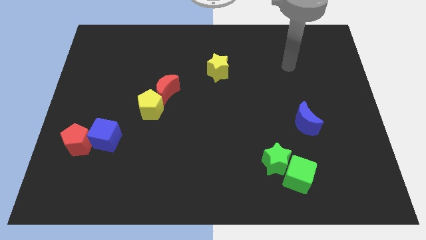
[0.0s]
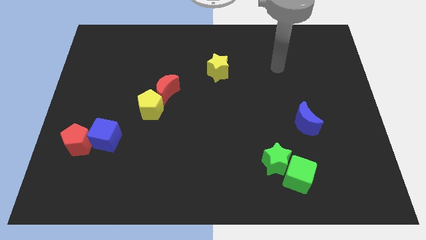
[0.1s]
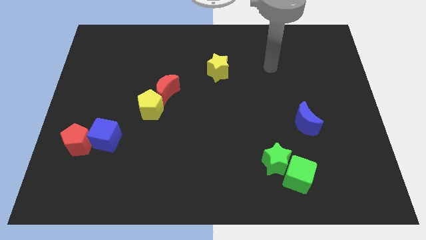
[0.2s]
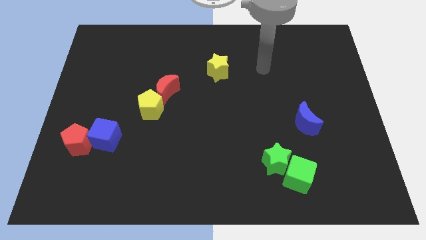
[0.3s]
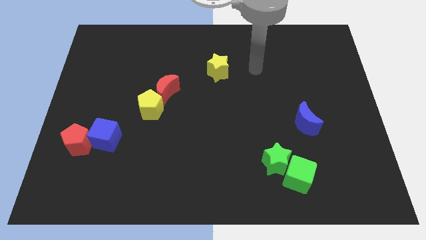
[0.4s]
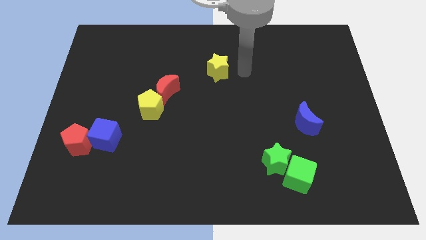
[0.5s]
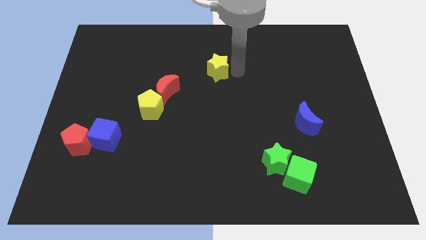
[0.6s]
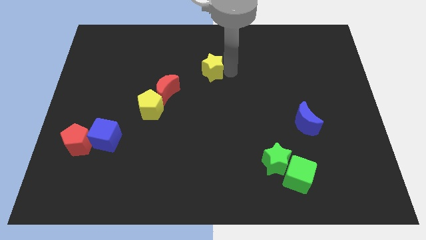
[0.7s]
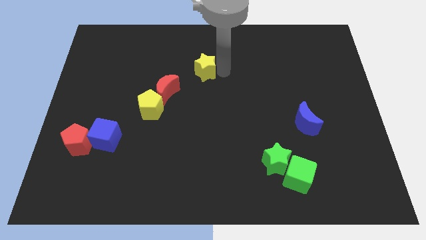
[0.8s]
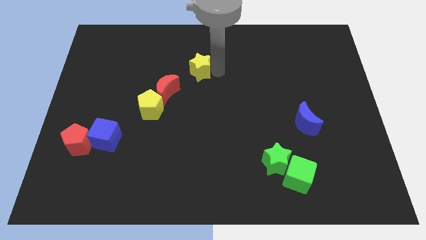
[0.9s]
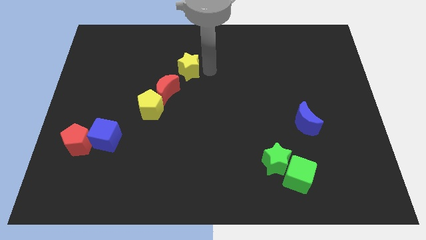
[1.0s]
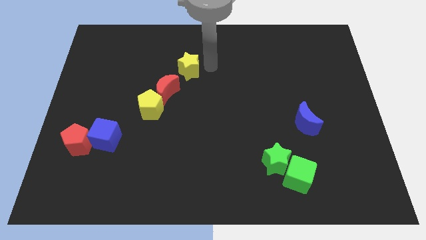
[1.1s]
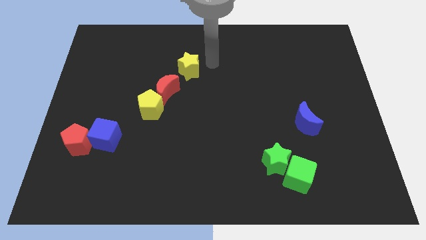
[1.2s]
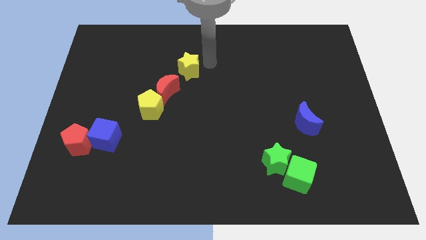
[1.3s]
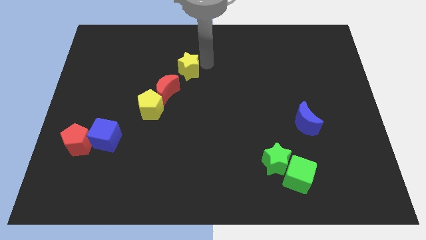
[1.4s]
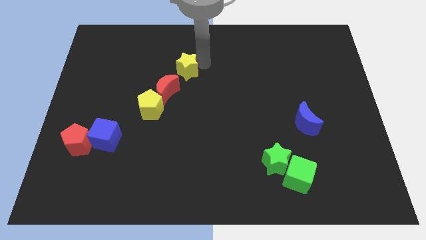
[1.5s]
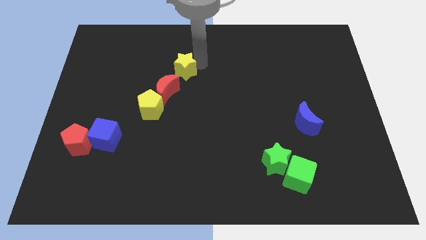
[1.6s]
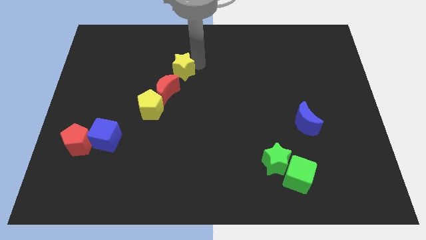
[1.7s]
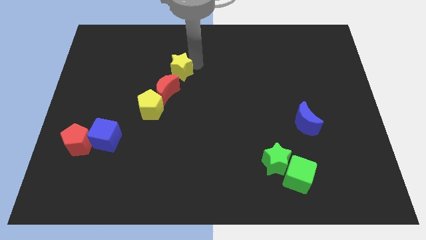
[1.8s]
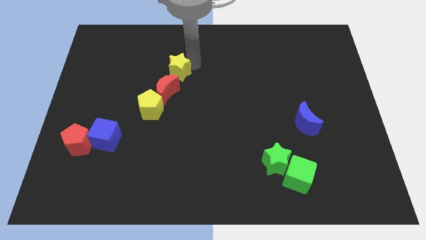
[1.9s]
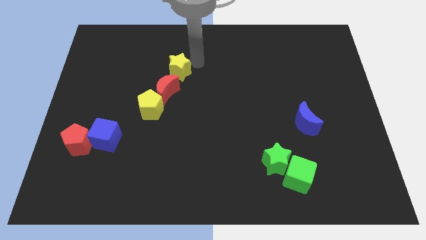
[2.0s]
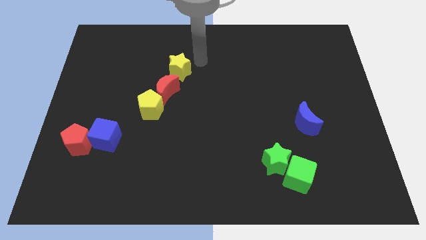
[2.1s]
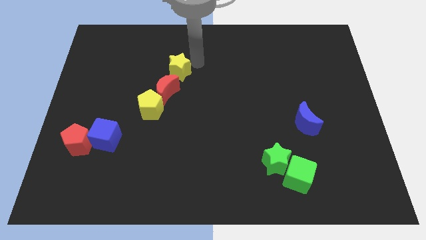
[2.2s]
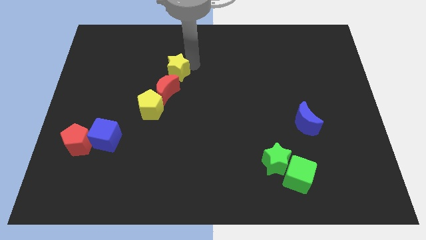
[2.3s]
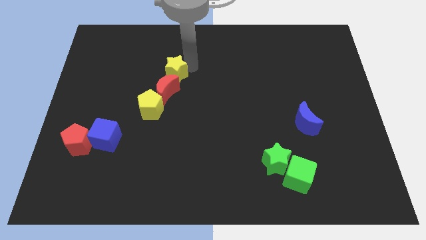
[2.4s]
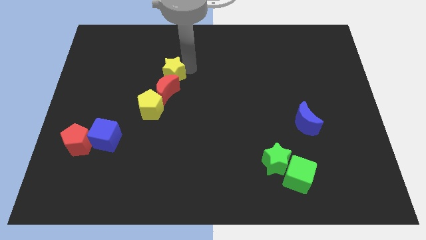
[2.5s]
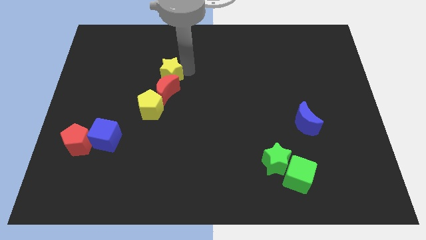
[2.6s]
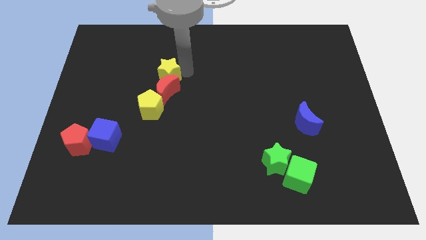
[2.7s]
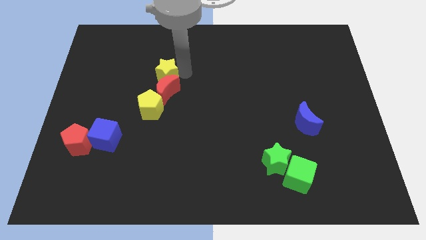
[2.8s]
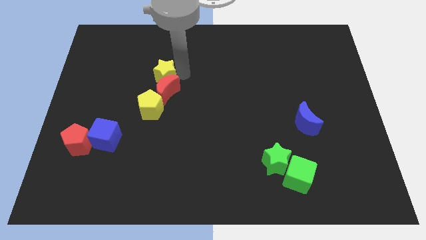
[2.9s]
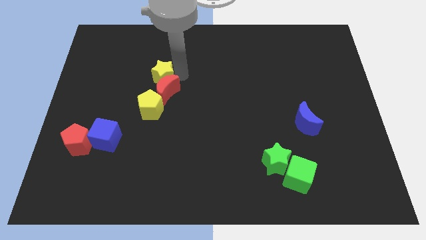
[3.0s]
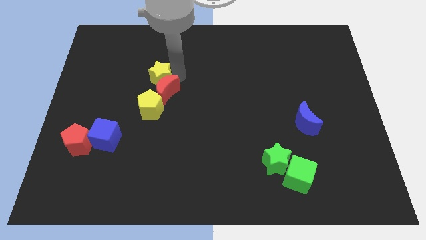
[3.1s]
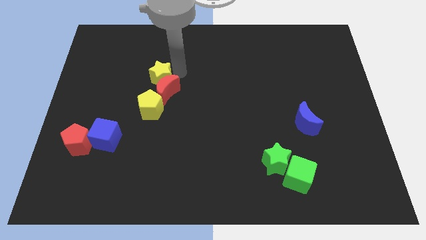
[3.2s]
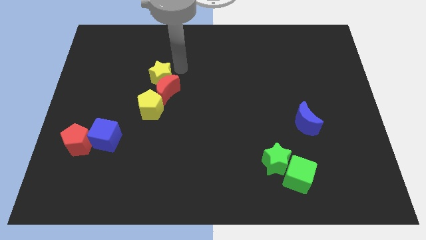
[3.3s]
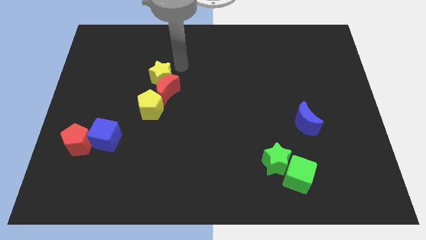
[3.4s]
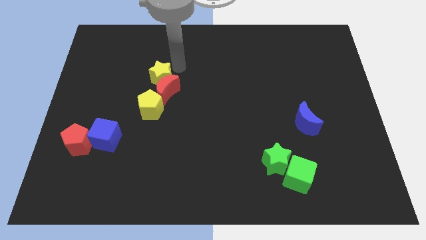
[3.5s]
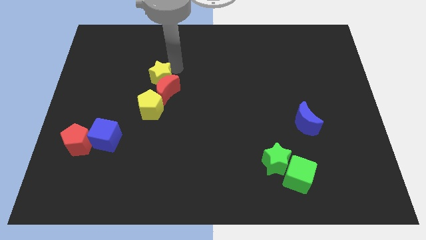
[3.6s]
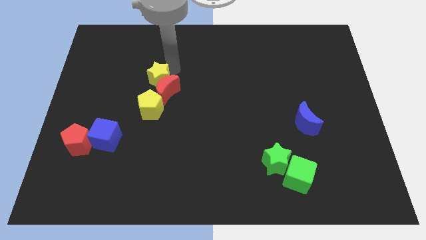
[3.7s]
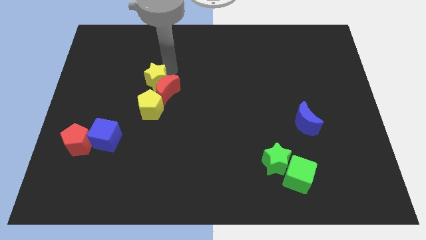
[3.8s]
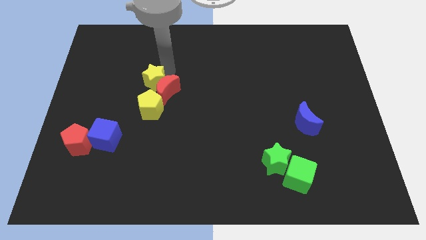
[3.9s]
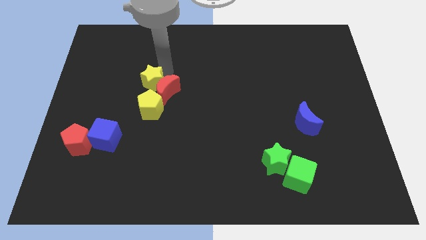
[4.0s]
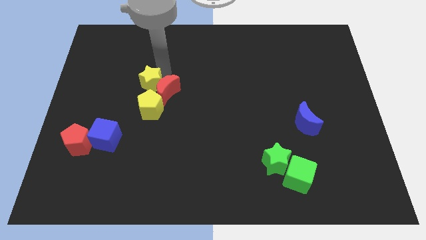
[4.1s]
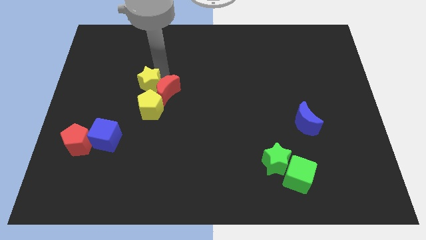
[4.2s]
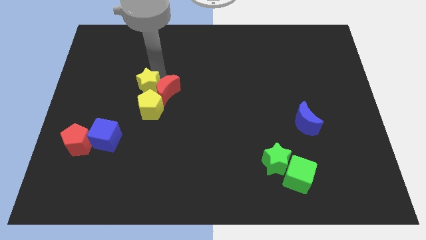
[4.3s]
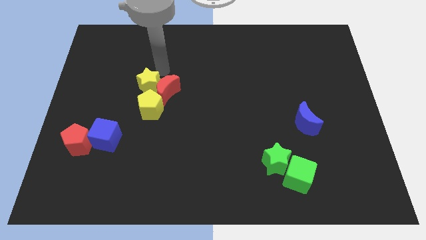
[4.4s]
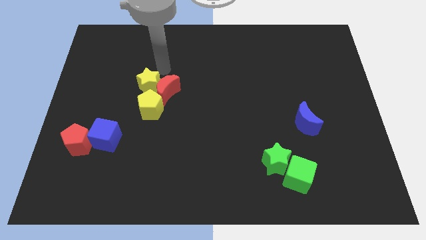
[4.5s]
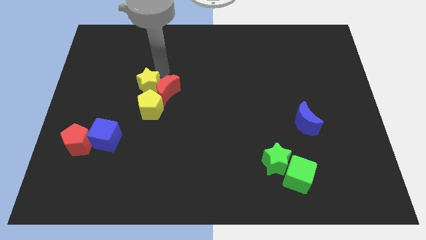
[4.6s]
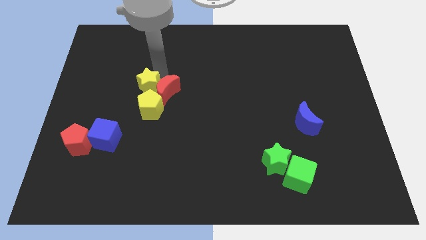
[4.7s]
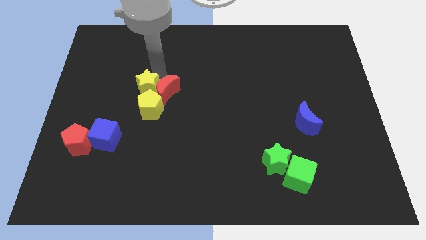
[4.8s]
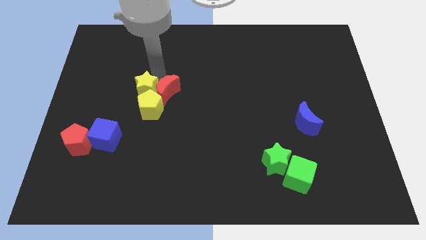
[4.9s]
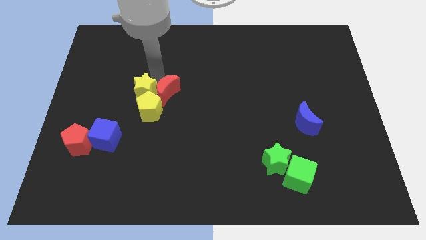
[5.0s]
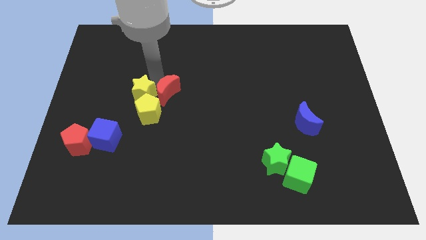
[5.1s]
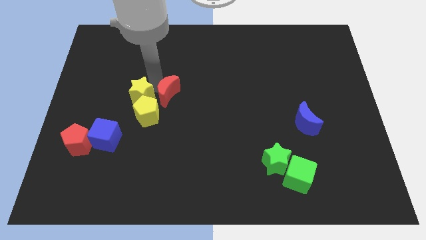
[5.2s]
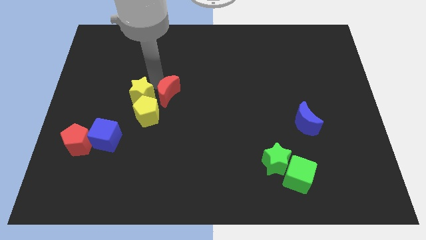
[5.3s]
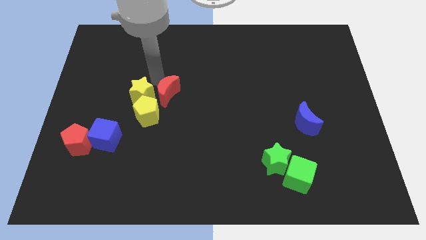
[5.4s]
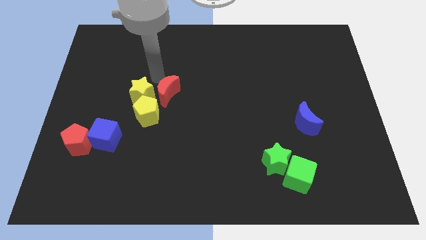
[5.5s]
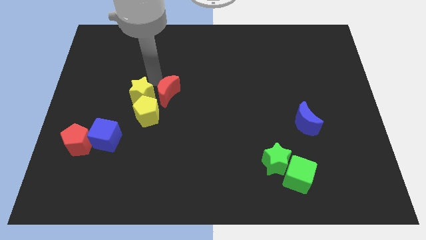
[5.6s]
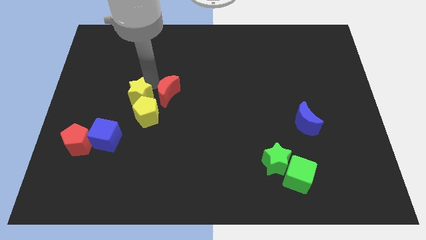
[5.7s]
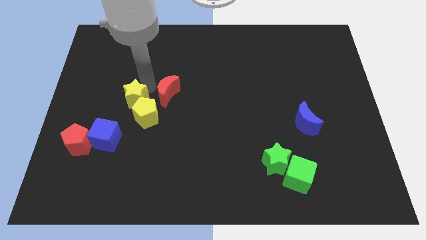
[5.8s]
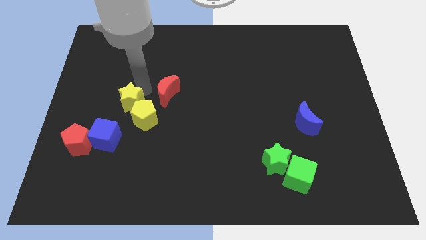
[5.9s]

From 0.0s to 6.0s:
push the yellow star to the top right side of the blue cube
